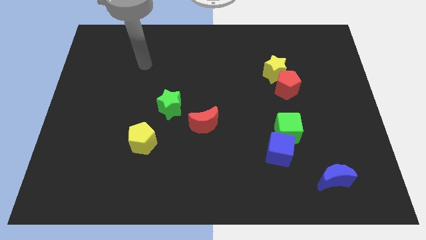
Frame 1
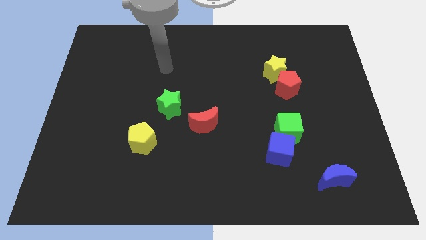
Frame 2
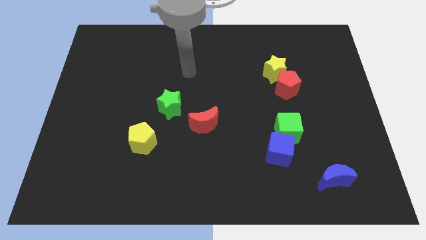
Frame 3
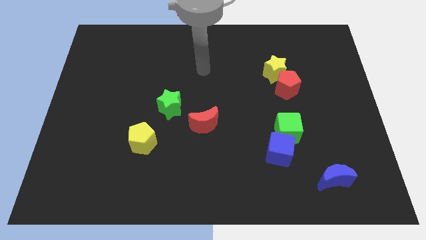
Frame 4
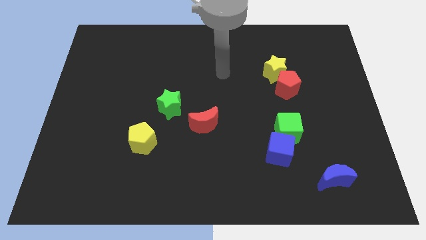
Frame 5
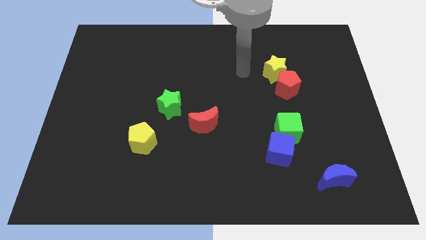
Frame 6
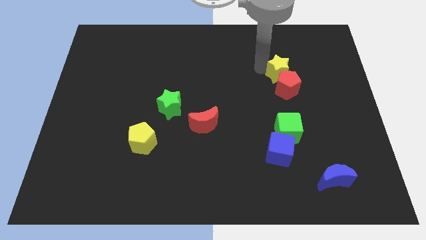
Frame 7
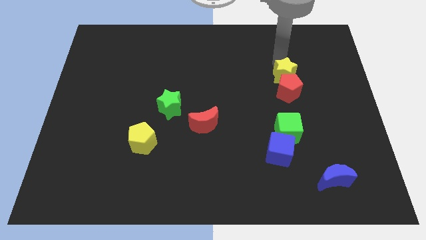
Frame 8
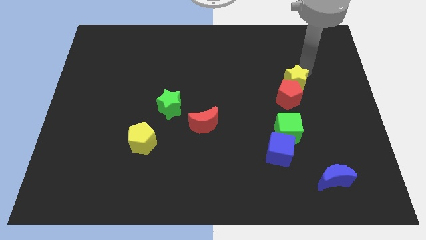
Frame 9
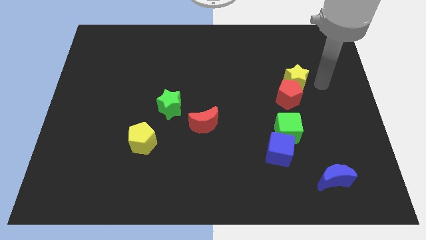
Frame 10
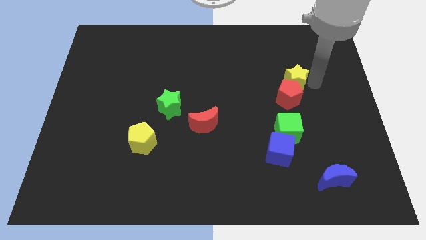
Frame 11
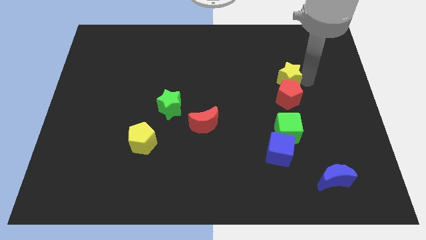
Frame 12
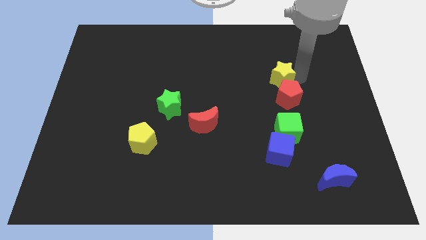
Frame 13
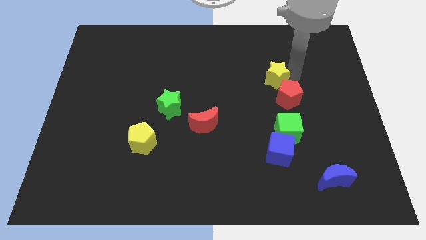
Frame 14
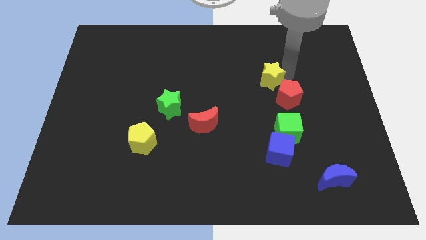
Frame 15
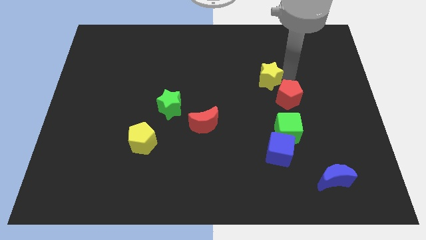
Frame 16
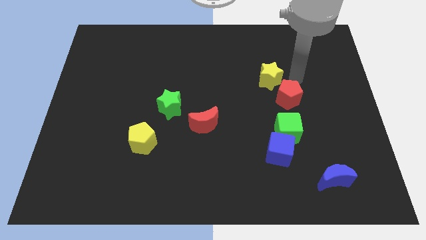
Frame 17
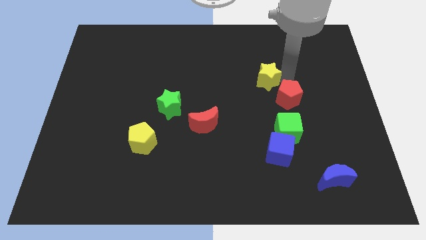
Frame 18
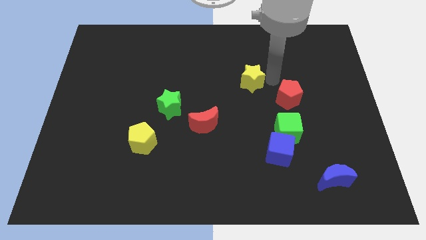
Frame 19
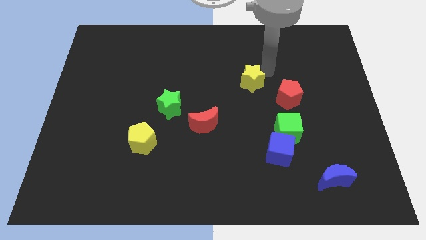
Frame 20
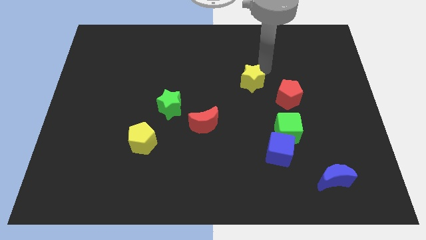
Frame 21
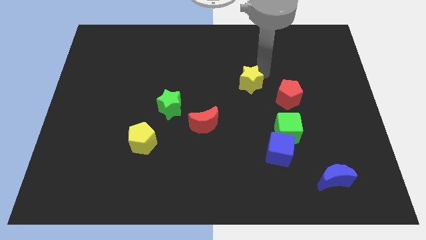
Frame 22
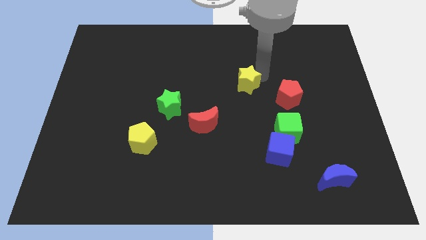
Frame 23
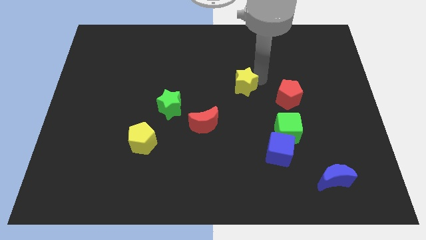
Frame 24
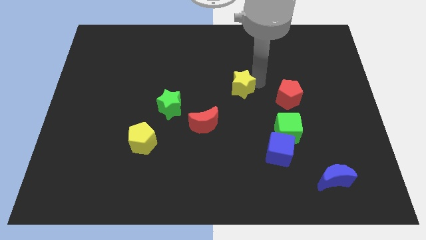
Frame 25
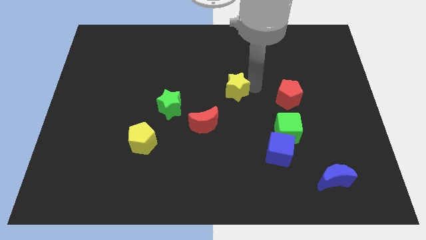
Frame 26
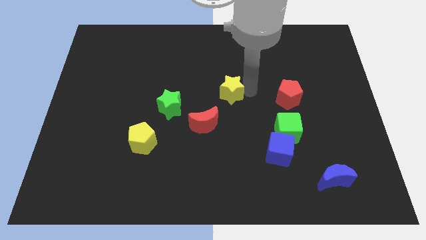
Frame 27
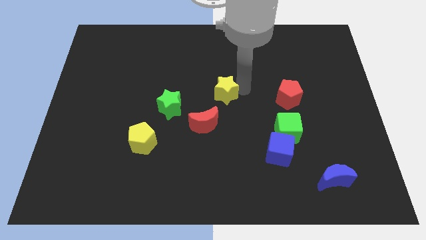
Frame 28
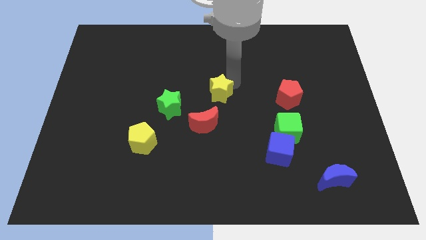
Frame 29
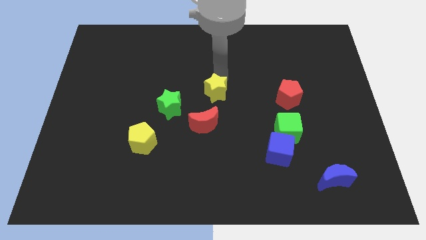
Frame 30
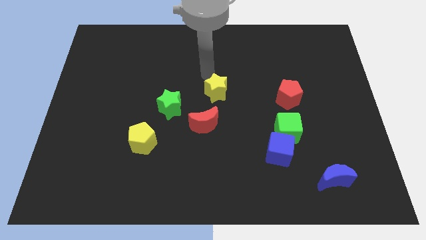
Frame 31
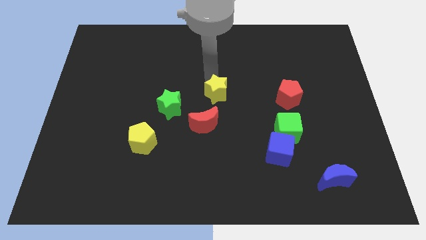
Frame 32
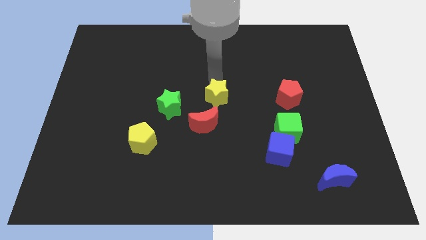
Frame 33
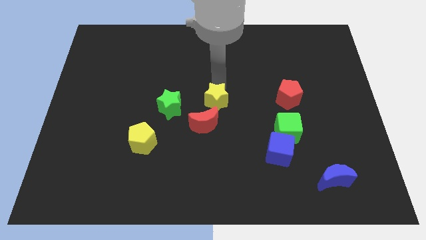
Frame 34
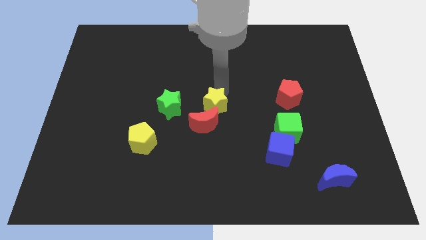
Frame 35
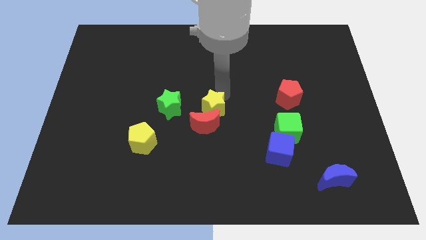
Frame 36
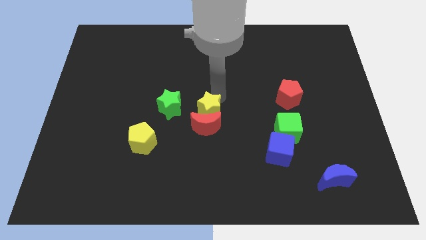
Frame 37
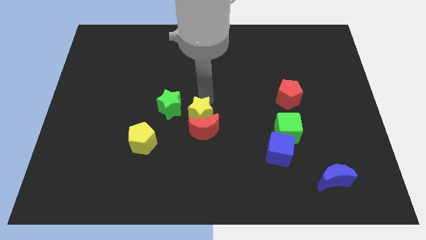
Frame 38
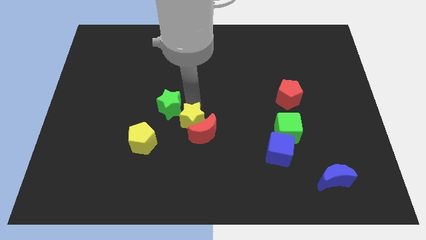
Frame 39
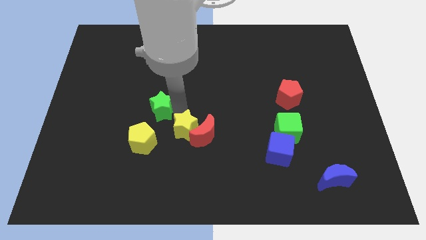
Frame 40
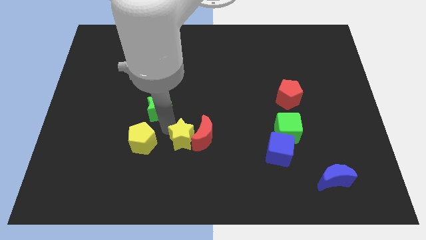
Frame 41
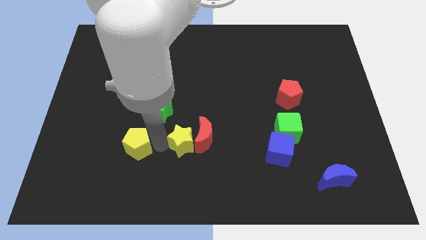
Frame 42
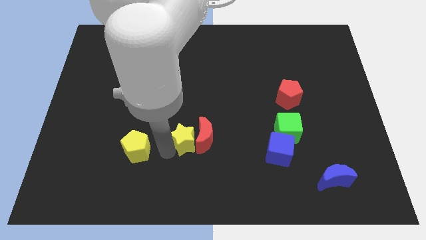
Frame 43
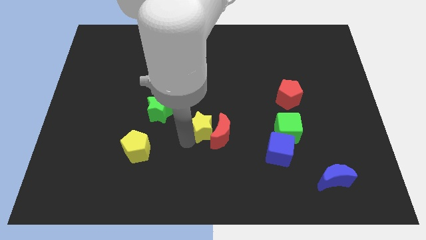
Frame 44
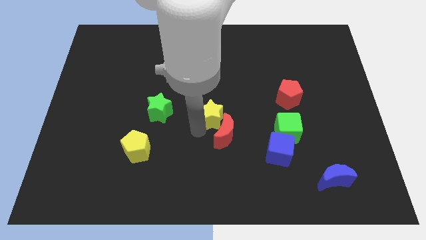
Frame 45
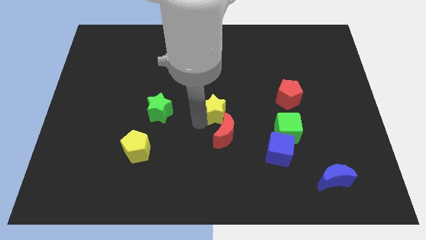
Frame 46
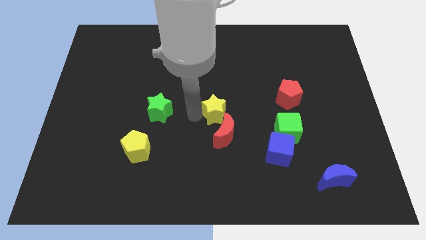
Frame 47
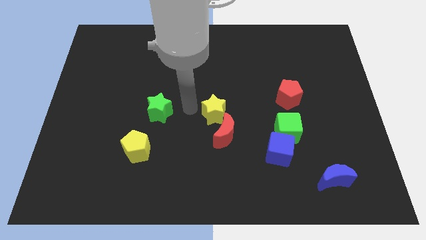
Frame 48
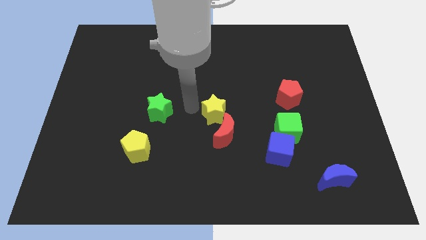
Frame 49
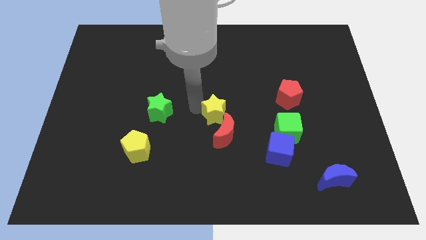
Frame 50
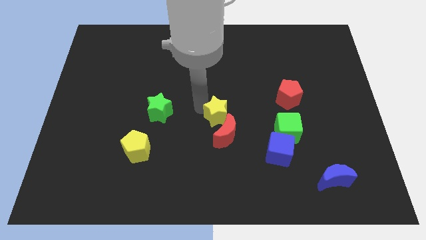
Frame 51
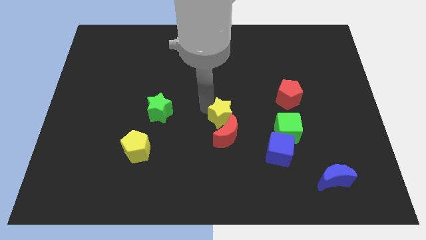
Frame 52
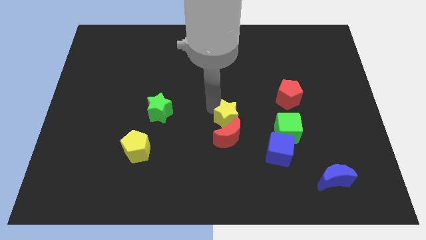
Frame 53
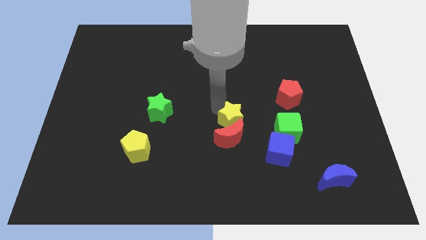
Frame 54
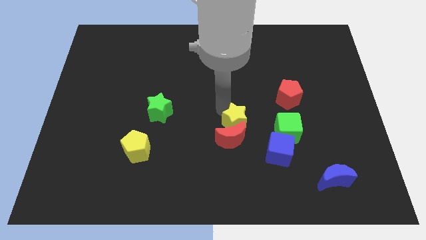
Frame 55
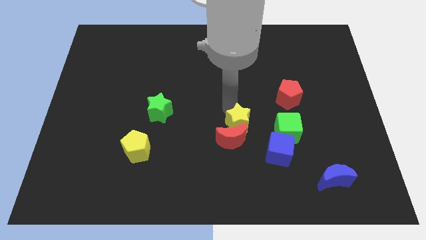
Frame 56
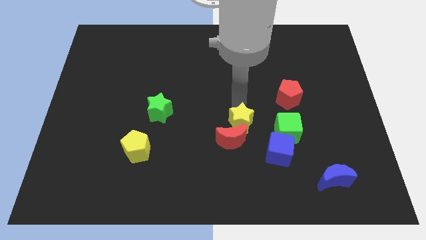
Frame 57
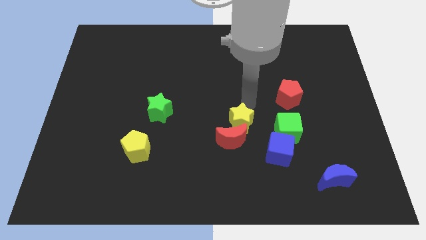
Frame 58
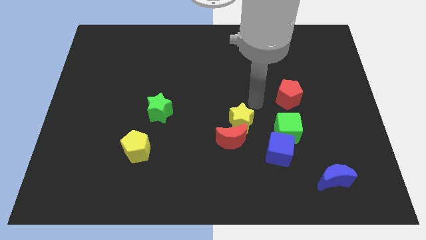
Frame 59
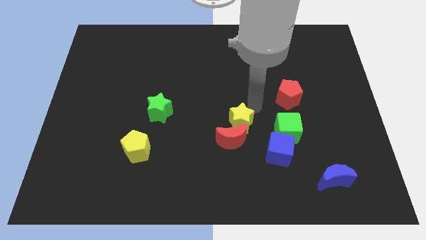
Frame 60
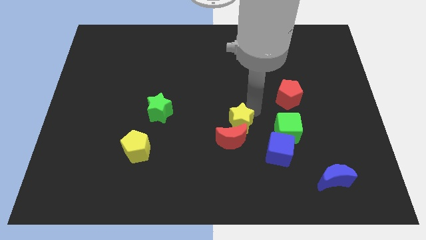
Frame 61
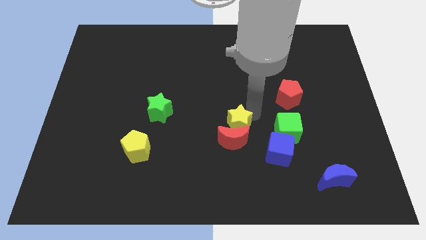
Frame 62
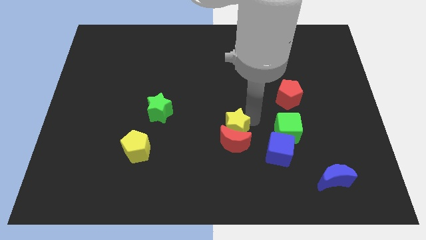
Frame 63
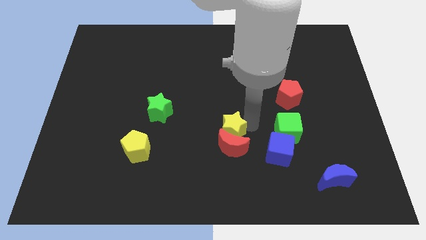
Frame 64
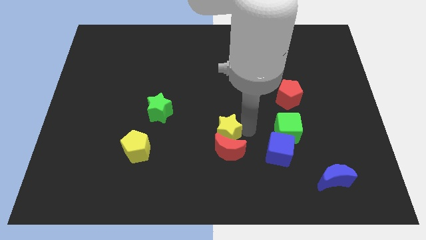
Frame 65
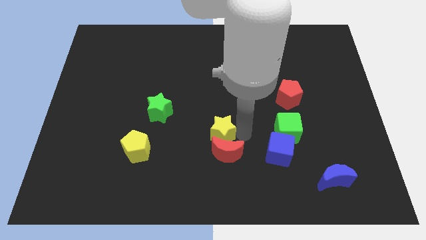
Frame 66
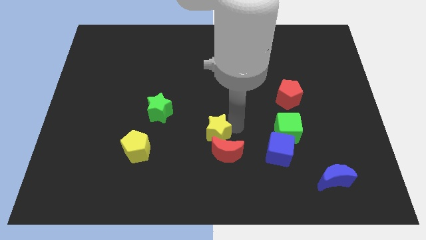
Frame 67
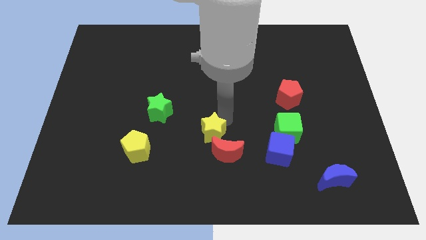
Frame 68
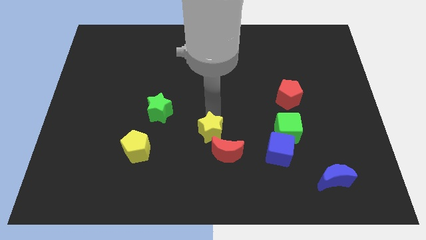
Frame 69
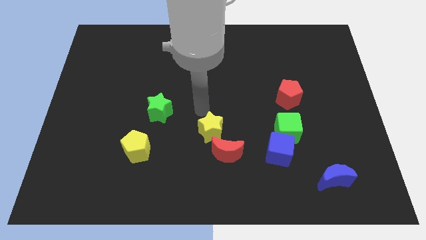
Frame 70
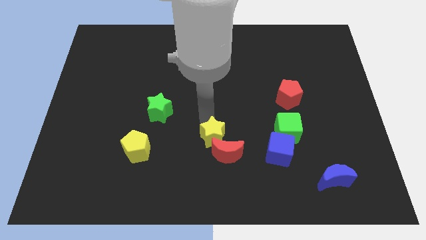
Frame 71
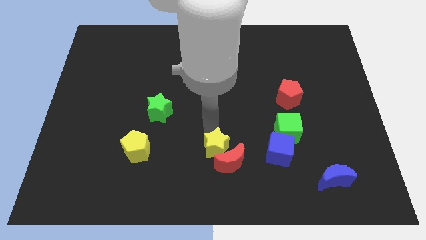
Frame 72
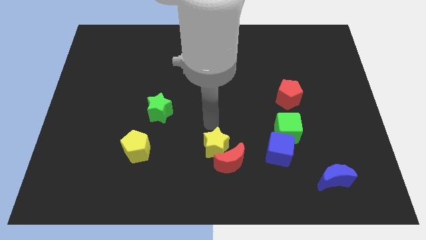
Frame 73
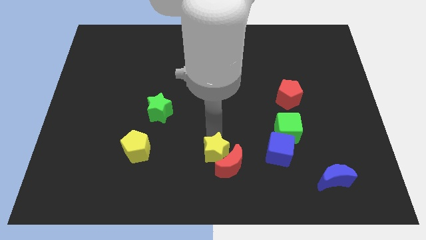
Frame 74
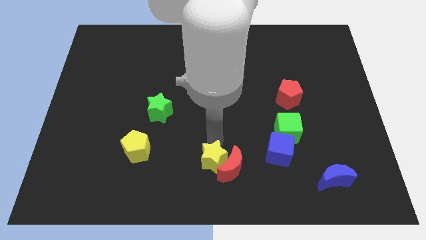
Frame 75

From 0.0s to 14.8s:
push the yellow star to the bottom
